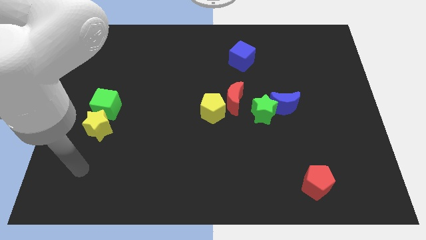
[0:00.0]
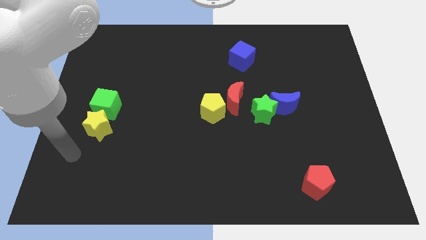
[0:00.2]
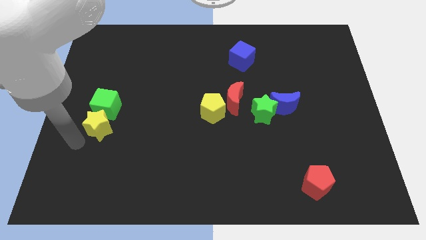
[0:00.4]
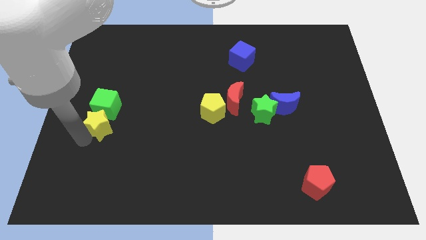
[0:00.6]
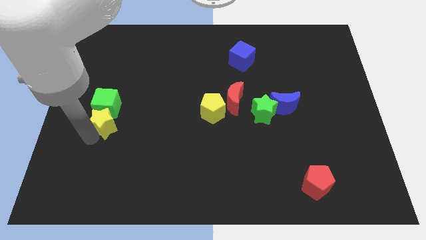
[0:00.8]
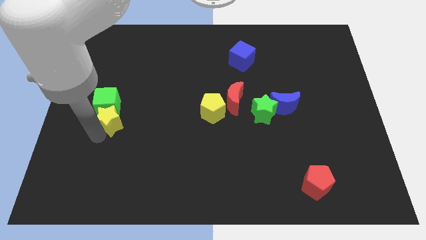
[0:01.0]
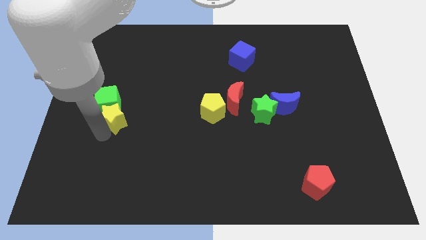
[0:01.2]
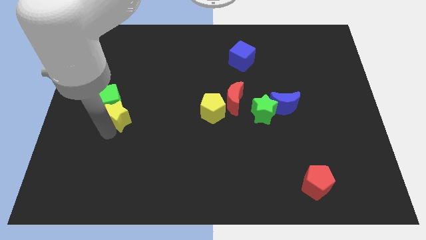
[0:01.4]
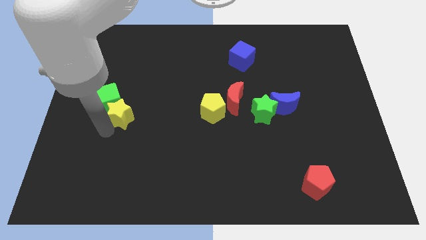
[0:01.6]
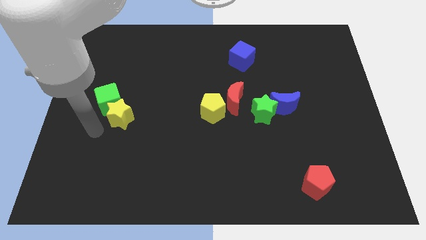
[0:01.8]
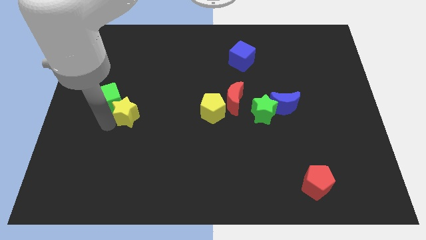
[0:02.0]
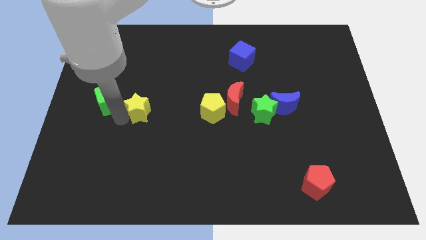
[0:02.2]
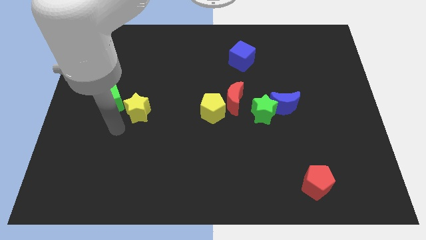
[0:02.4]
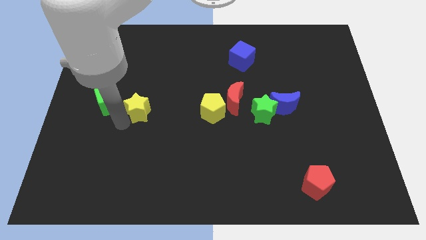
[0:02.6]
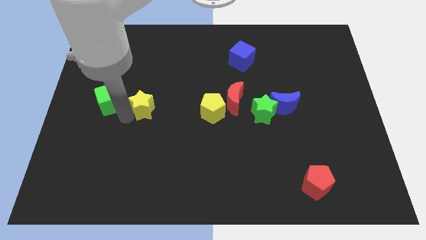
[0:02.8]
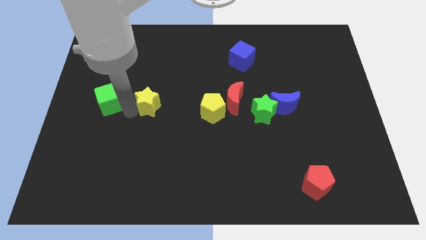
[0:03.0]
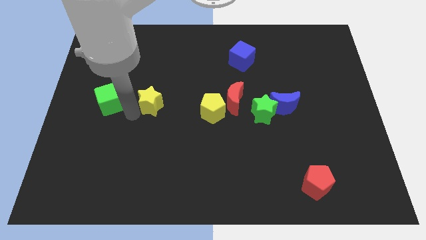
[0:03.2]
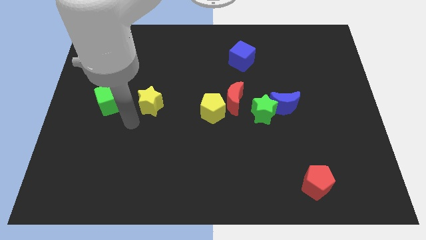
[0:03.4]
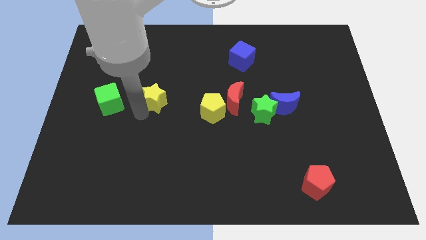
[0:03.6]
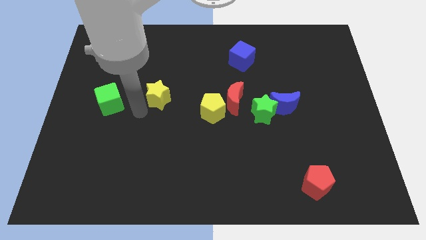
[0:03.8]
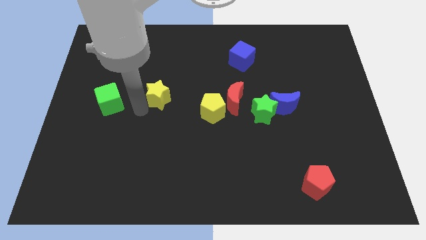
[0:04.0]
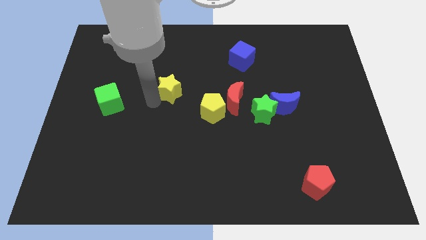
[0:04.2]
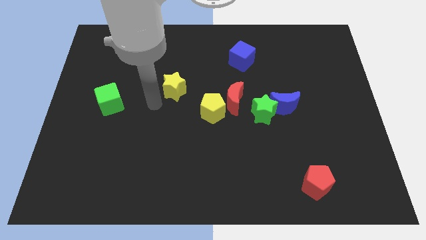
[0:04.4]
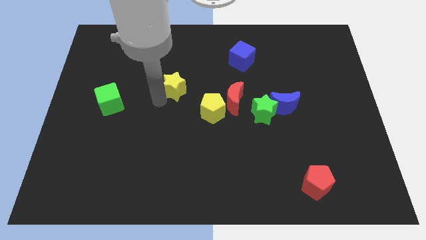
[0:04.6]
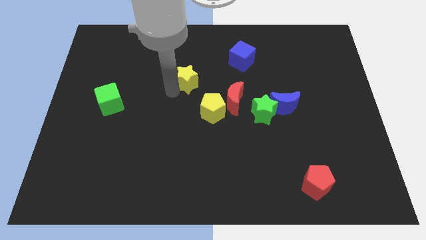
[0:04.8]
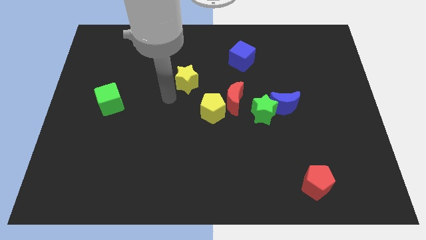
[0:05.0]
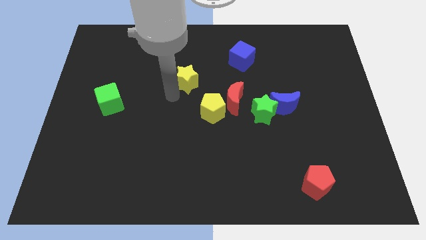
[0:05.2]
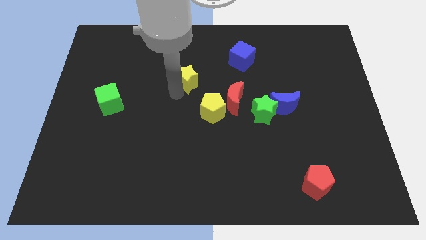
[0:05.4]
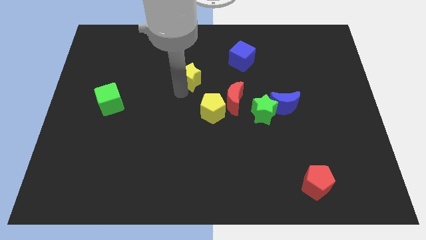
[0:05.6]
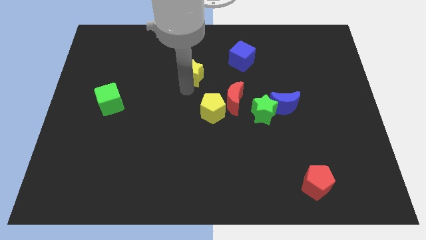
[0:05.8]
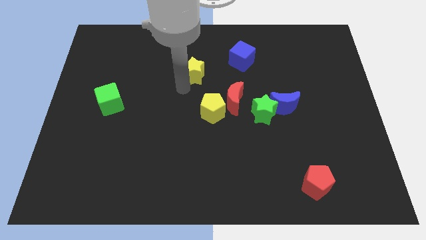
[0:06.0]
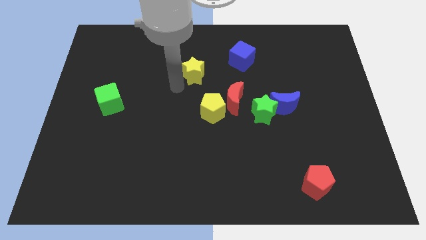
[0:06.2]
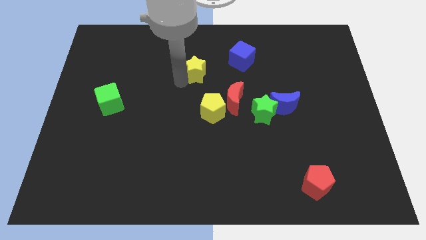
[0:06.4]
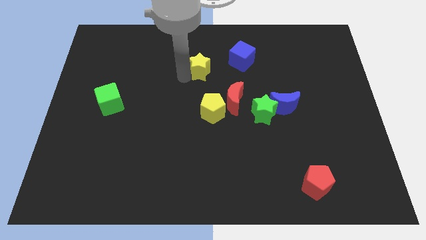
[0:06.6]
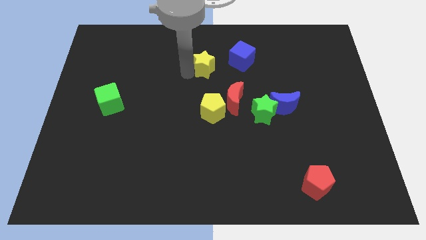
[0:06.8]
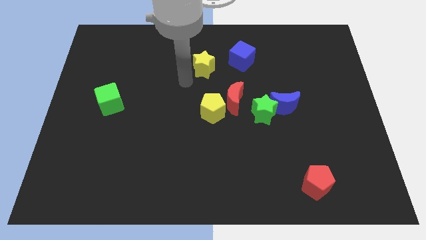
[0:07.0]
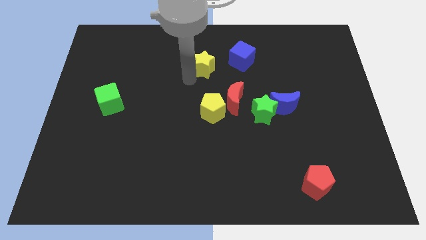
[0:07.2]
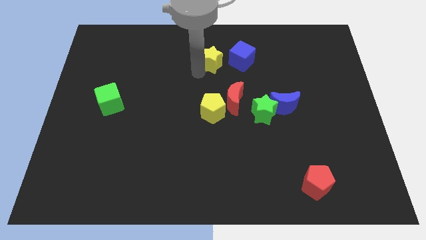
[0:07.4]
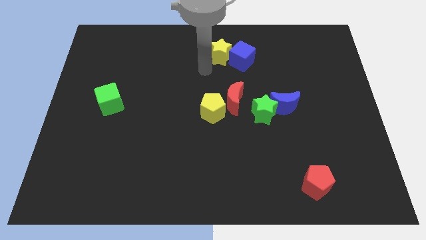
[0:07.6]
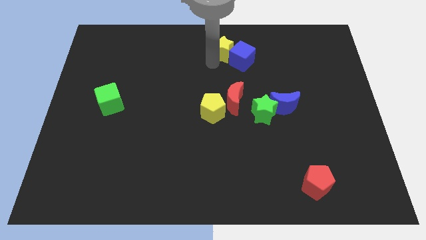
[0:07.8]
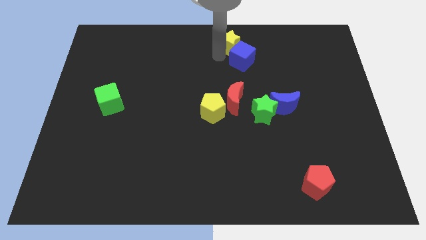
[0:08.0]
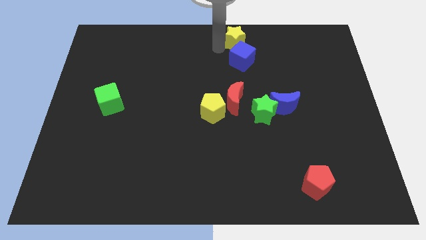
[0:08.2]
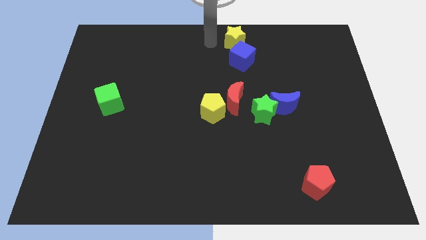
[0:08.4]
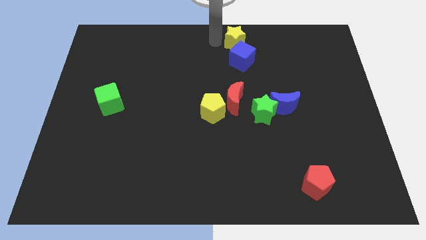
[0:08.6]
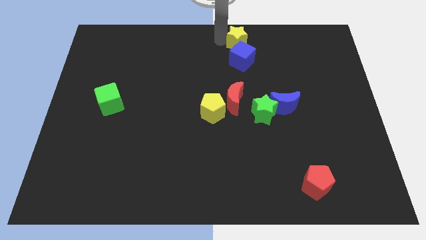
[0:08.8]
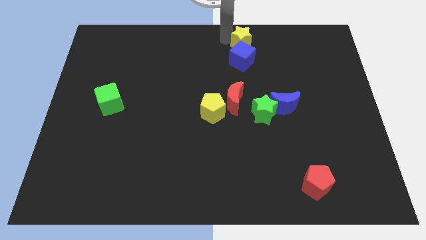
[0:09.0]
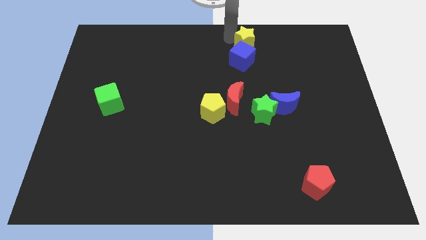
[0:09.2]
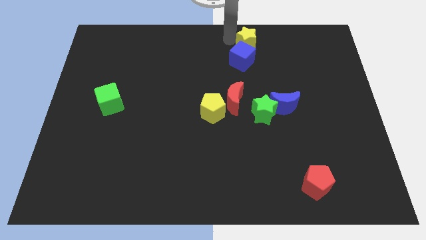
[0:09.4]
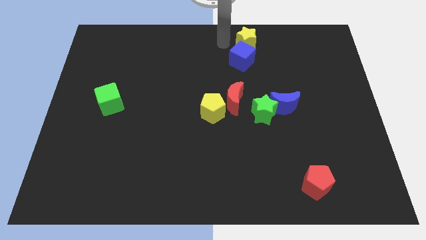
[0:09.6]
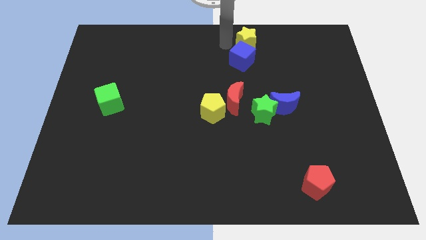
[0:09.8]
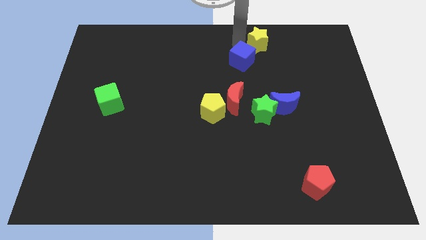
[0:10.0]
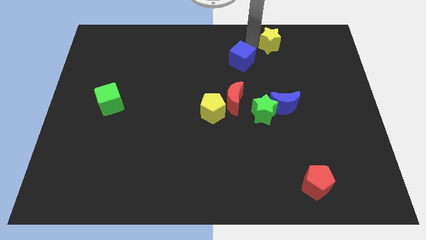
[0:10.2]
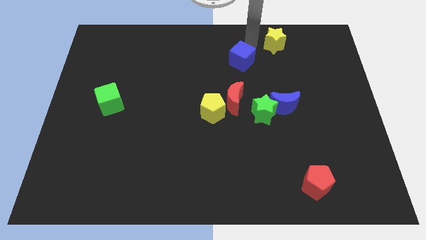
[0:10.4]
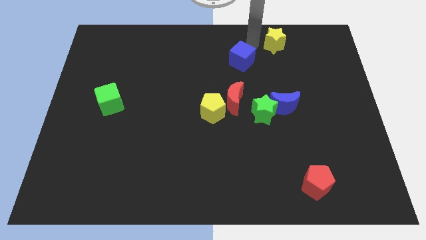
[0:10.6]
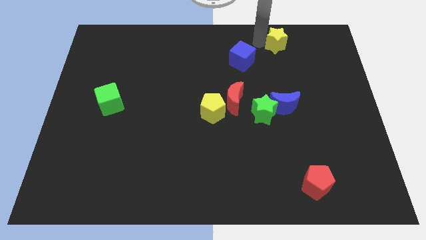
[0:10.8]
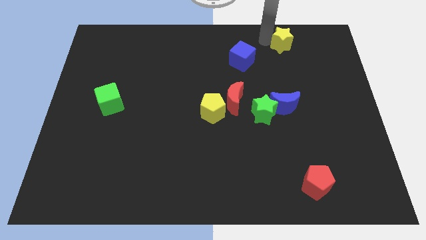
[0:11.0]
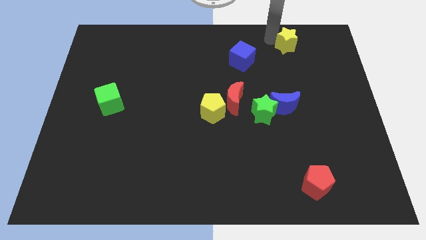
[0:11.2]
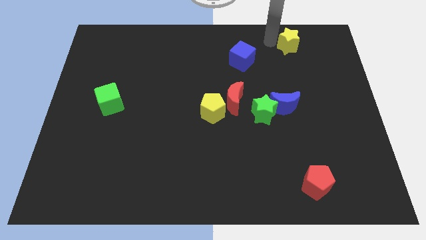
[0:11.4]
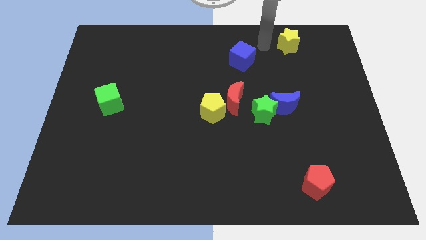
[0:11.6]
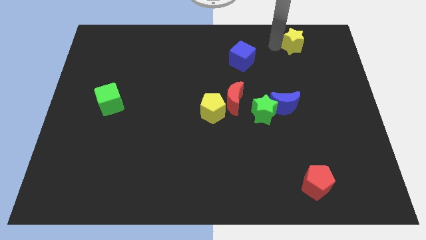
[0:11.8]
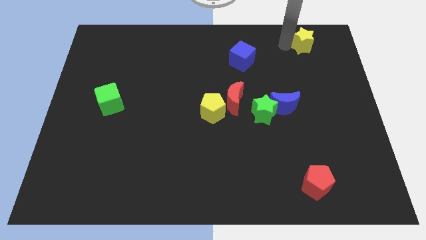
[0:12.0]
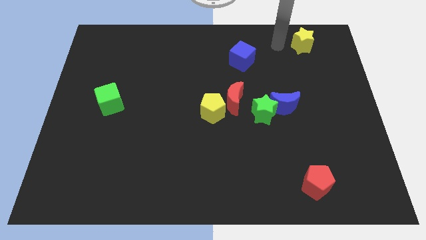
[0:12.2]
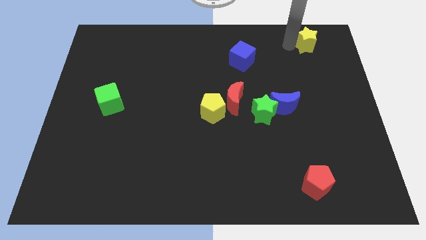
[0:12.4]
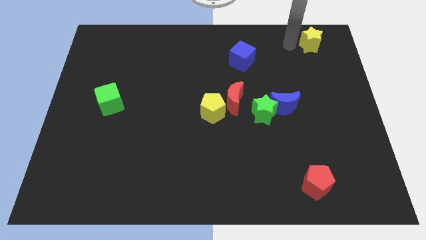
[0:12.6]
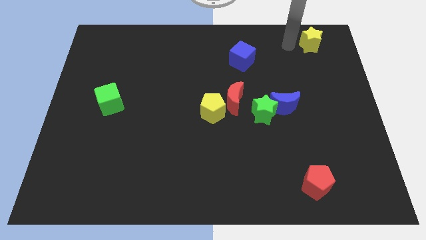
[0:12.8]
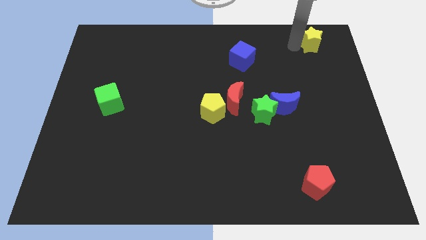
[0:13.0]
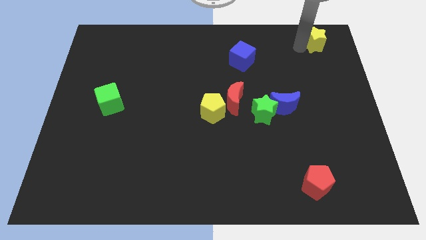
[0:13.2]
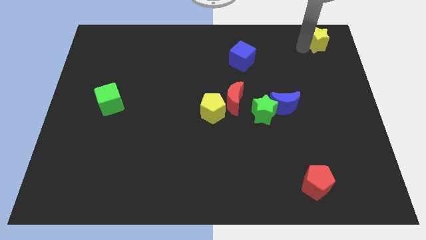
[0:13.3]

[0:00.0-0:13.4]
slide the yellow star to the top right corner
